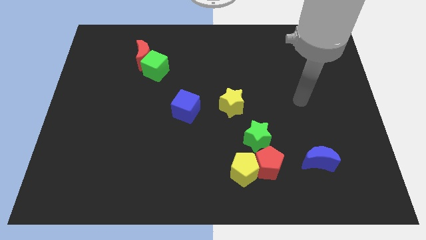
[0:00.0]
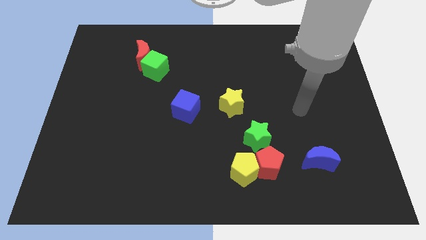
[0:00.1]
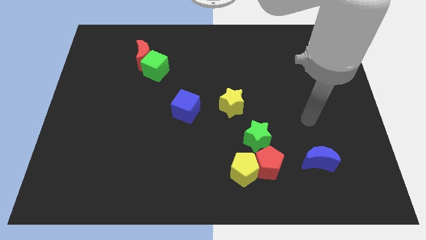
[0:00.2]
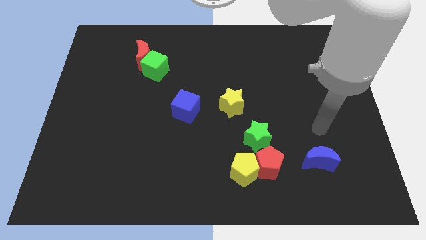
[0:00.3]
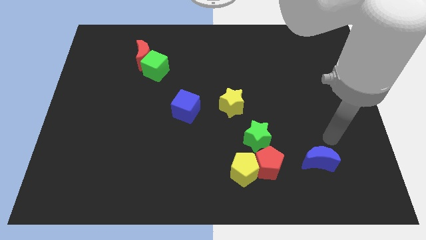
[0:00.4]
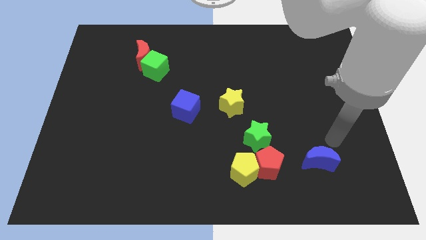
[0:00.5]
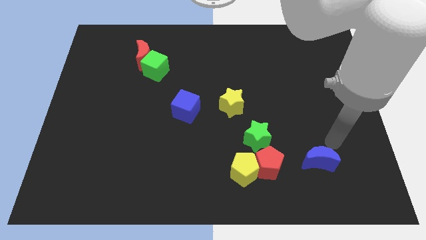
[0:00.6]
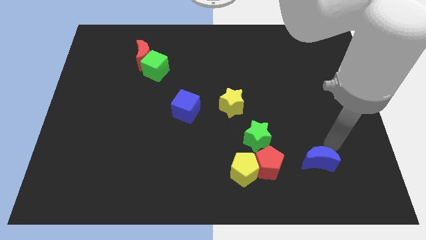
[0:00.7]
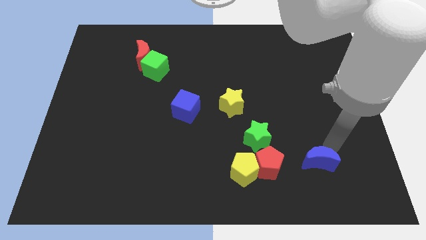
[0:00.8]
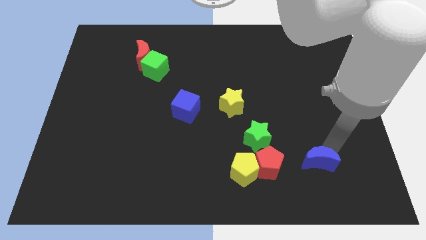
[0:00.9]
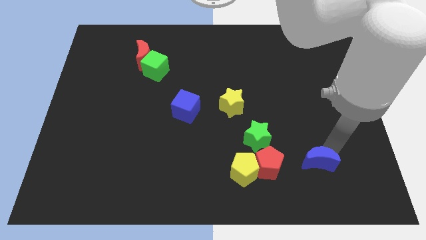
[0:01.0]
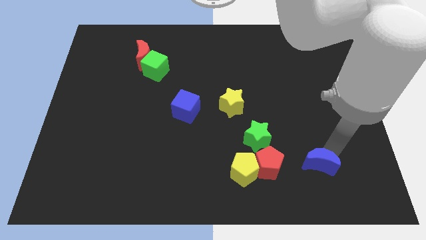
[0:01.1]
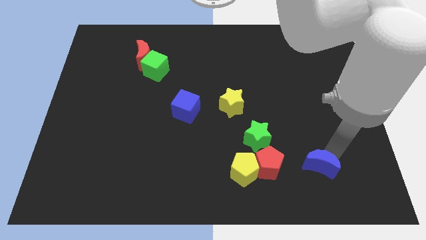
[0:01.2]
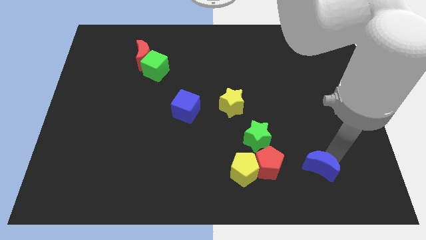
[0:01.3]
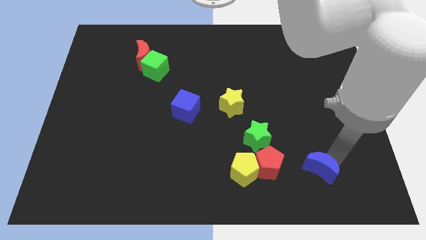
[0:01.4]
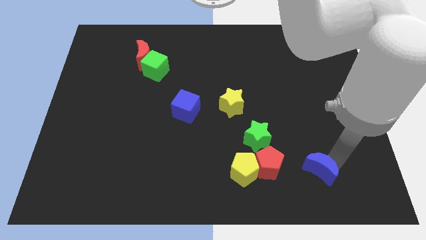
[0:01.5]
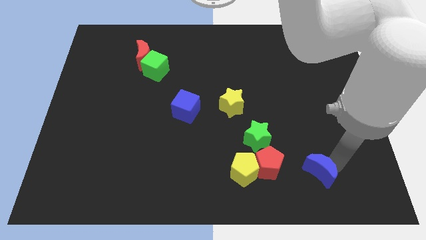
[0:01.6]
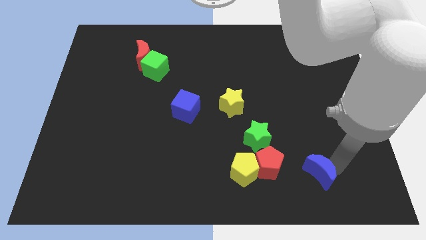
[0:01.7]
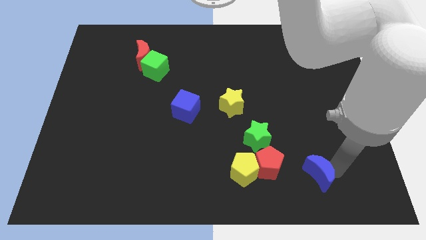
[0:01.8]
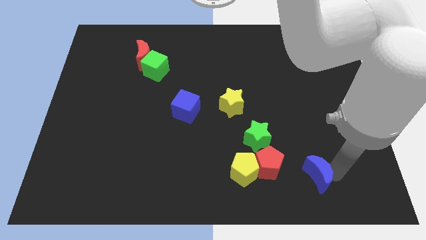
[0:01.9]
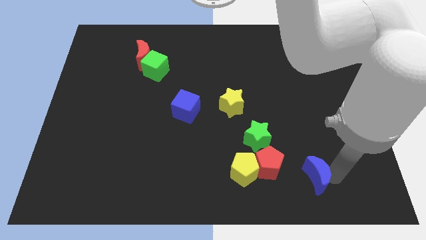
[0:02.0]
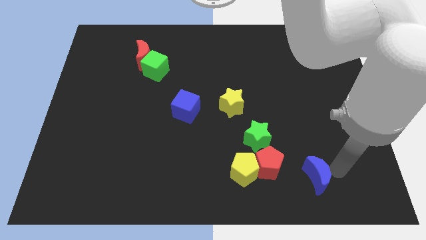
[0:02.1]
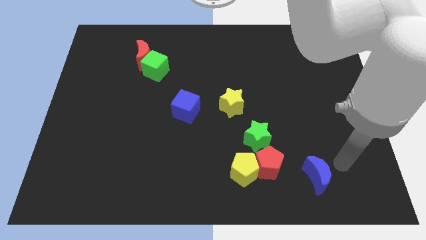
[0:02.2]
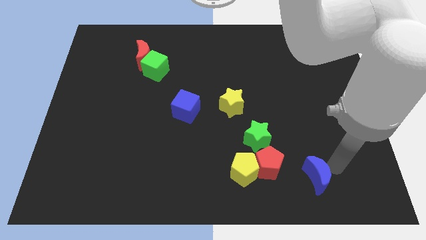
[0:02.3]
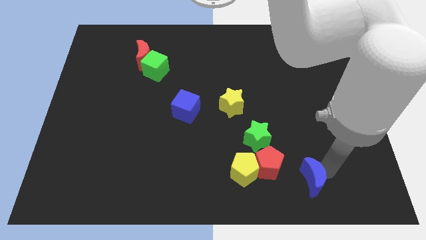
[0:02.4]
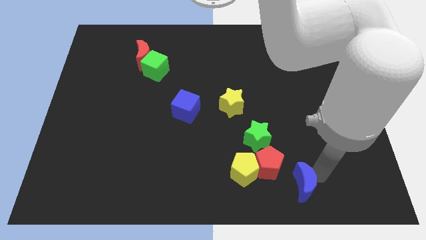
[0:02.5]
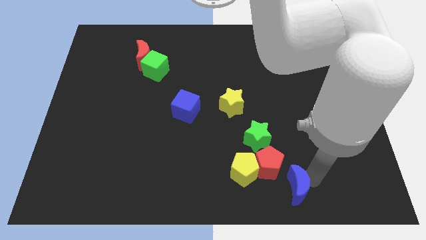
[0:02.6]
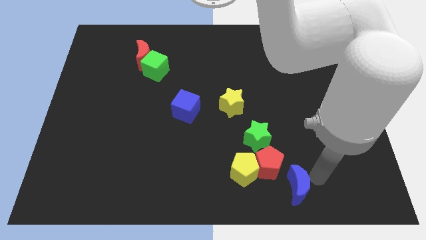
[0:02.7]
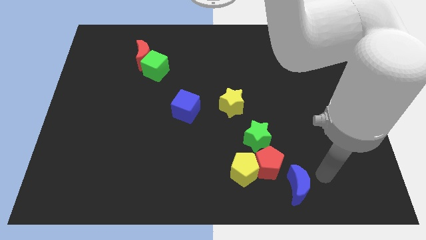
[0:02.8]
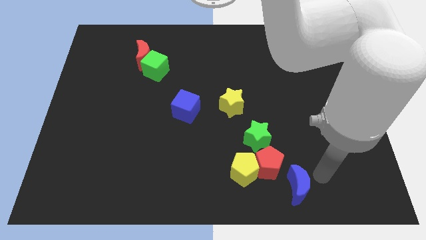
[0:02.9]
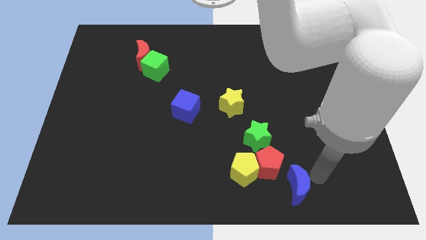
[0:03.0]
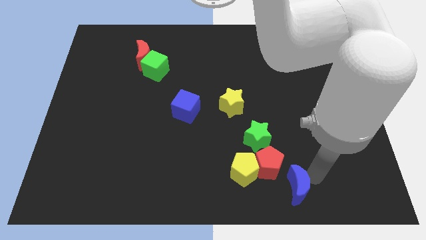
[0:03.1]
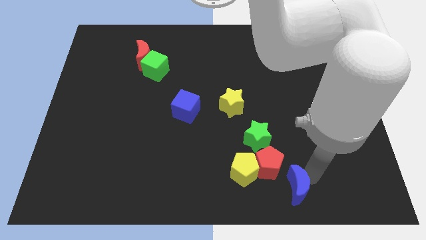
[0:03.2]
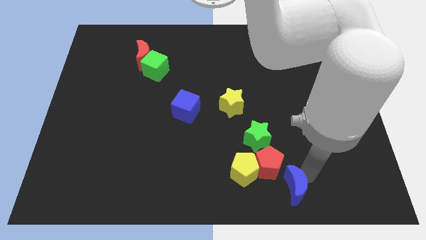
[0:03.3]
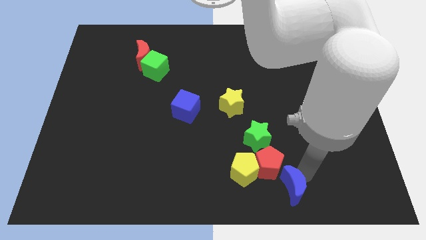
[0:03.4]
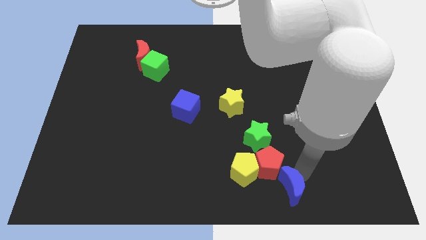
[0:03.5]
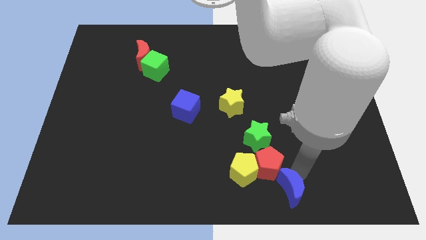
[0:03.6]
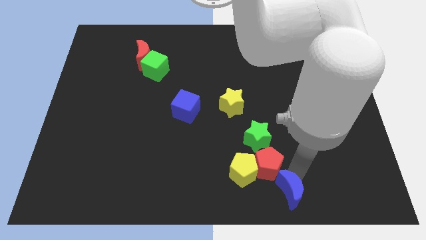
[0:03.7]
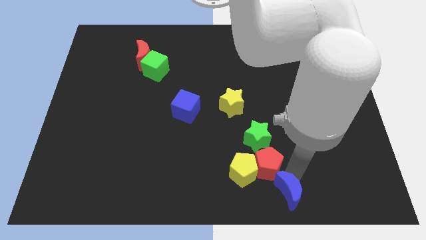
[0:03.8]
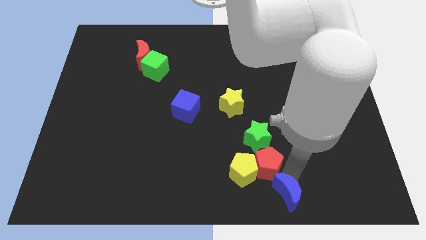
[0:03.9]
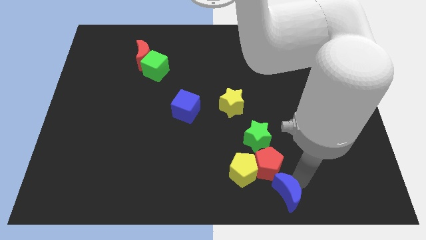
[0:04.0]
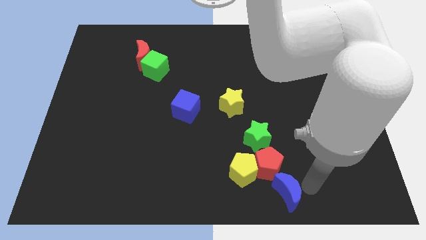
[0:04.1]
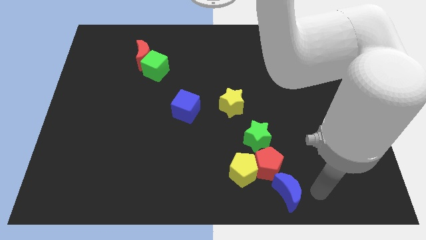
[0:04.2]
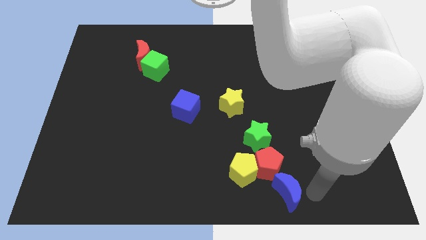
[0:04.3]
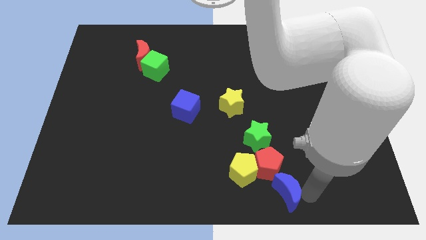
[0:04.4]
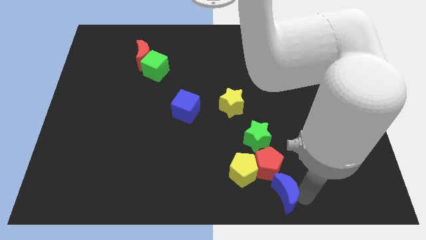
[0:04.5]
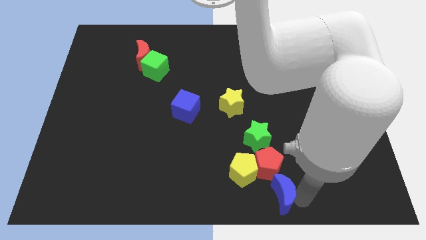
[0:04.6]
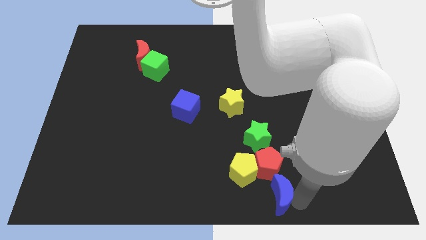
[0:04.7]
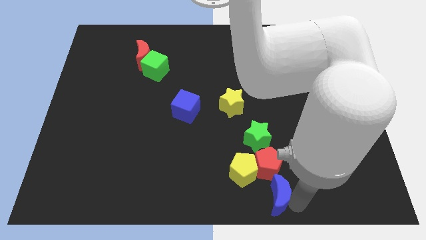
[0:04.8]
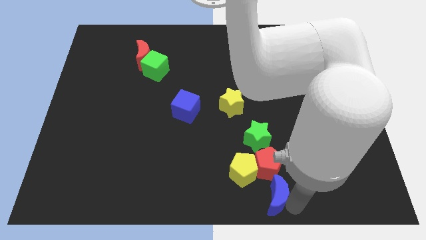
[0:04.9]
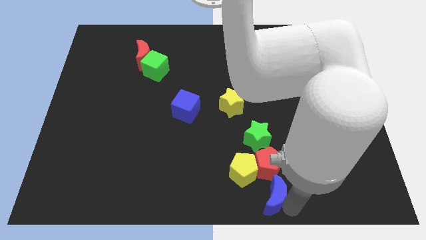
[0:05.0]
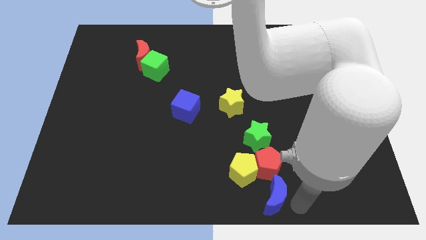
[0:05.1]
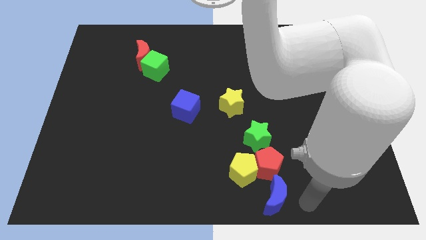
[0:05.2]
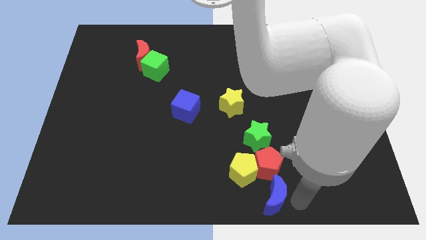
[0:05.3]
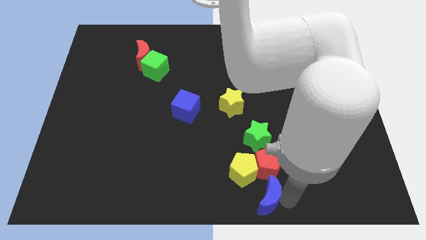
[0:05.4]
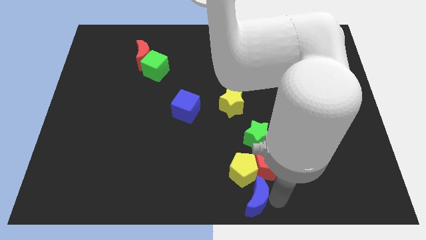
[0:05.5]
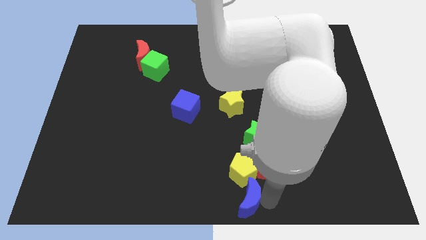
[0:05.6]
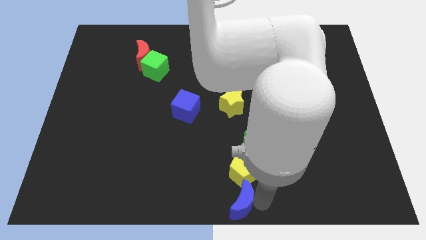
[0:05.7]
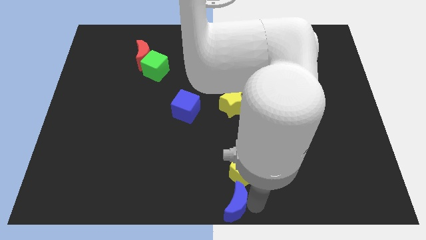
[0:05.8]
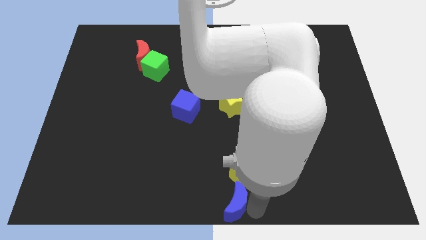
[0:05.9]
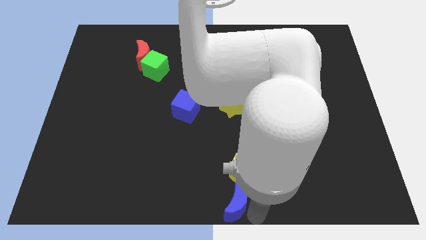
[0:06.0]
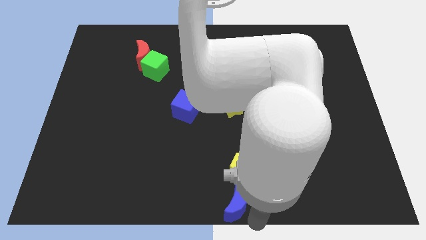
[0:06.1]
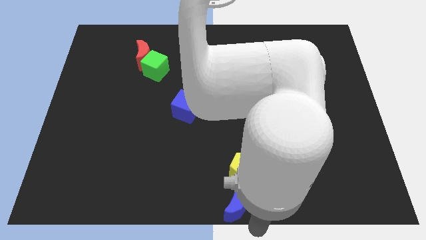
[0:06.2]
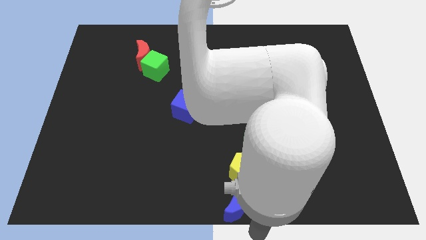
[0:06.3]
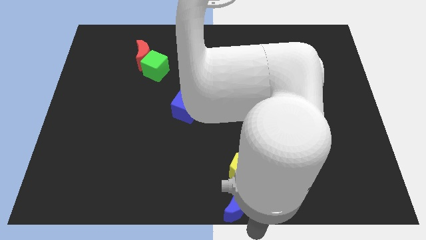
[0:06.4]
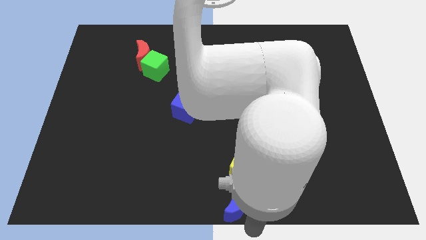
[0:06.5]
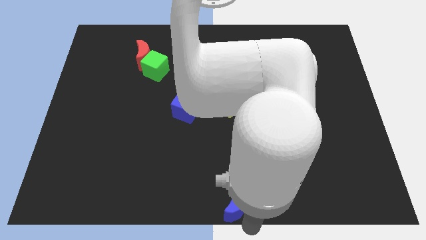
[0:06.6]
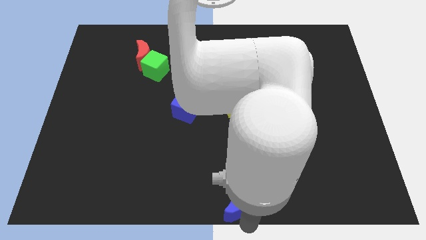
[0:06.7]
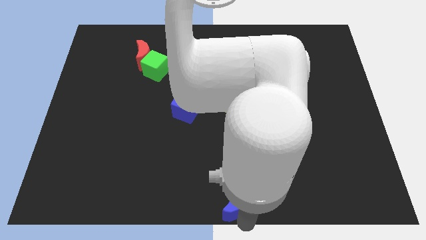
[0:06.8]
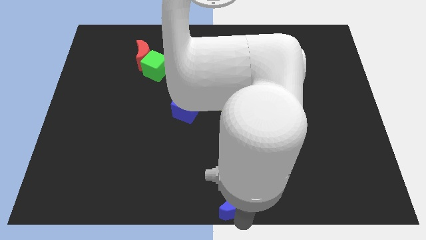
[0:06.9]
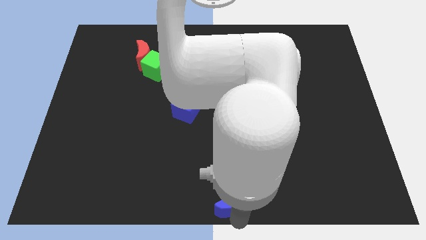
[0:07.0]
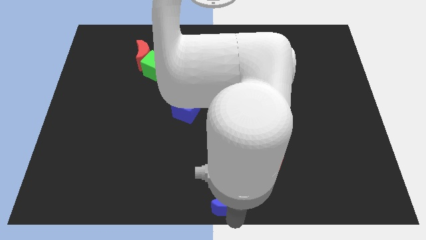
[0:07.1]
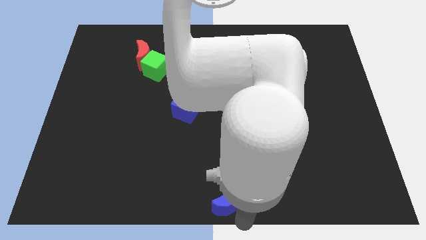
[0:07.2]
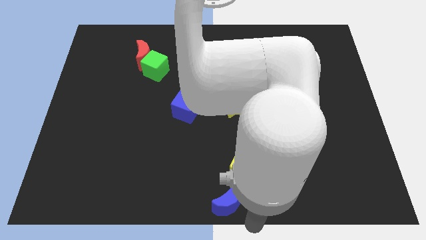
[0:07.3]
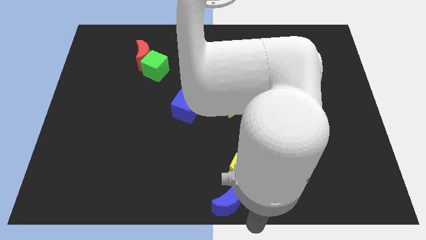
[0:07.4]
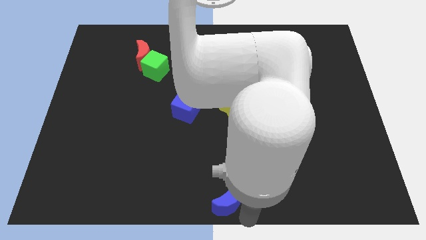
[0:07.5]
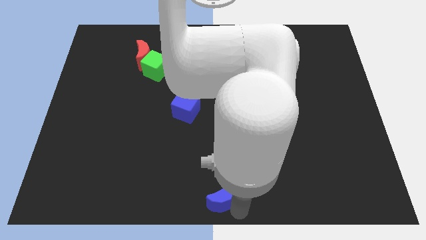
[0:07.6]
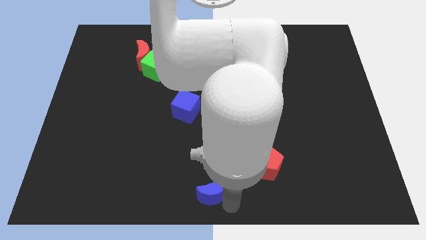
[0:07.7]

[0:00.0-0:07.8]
slide the blue moon just left of the yellow pentagon

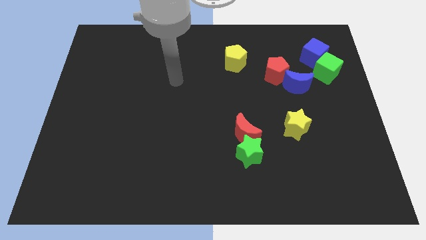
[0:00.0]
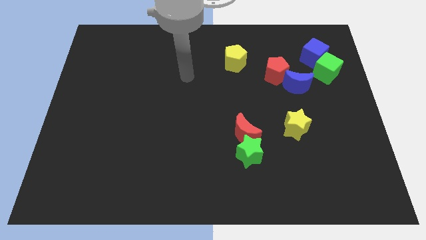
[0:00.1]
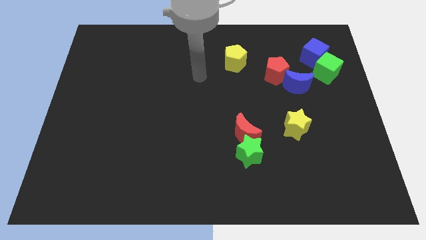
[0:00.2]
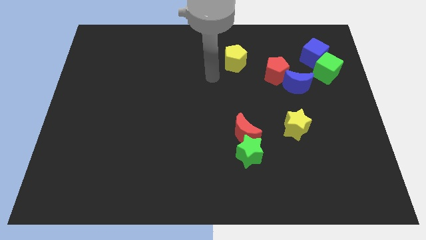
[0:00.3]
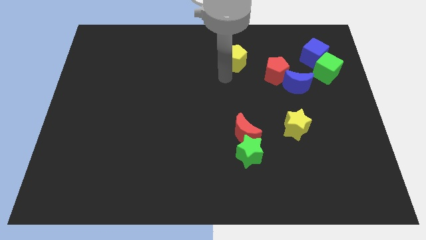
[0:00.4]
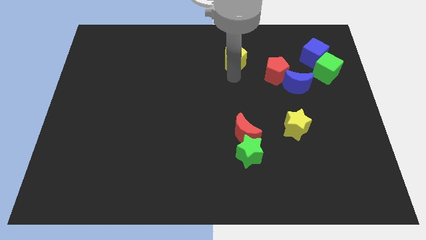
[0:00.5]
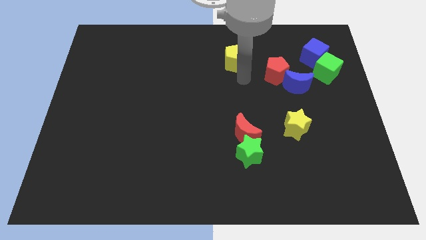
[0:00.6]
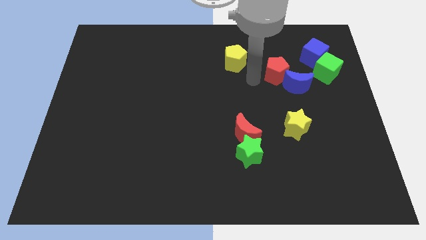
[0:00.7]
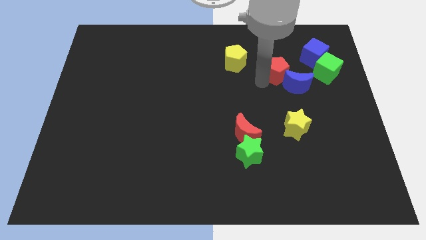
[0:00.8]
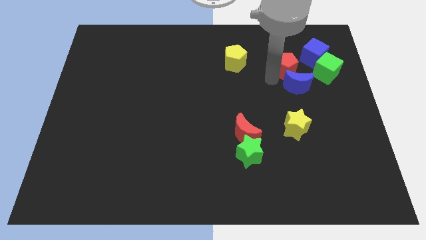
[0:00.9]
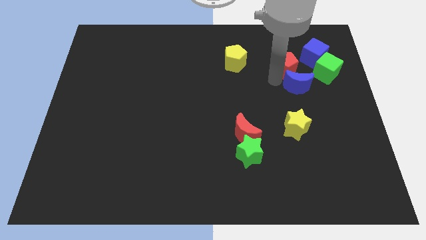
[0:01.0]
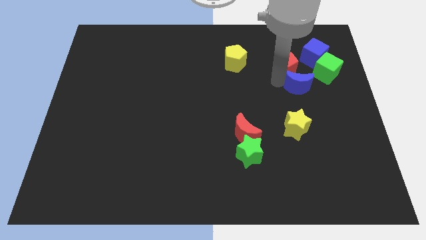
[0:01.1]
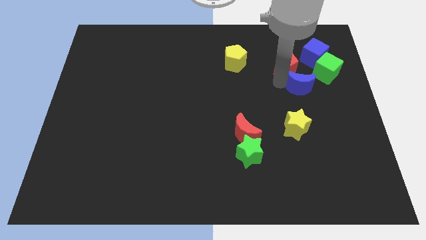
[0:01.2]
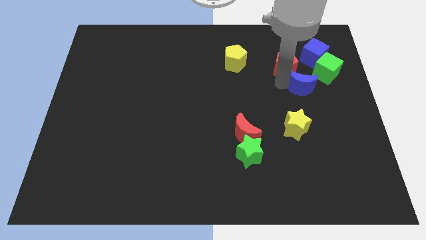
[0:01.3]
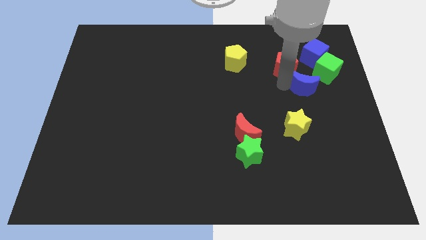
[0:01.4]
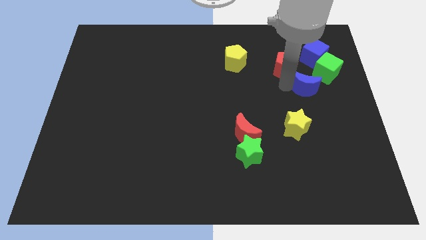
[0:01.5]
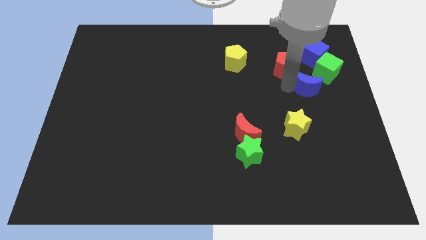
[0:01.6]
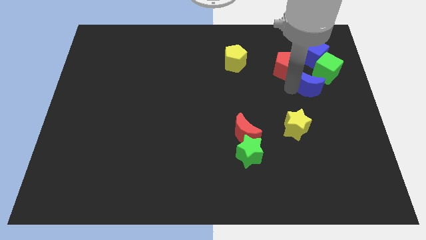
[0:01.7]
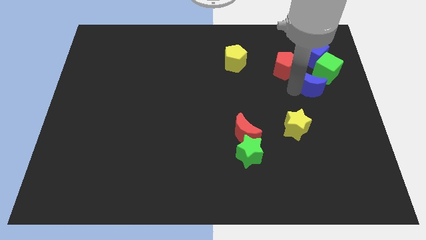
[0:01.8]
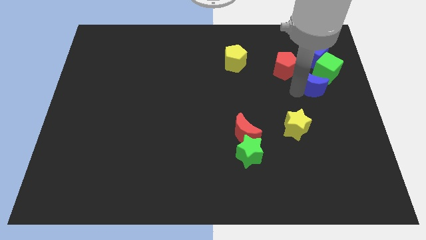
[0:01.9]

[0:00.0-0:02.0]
put the blue moon to the bottom of the green cube
